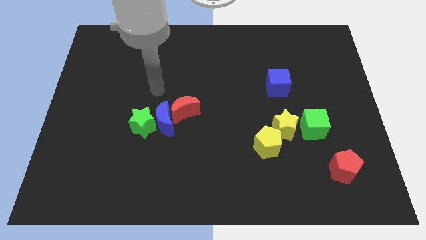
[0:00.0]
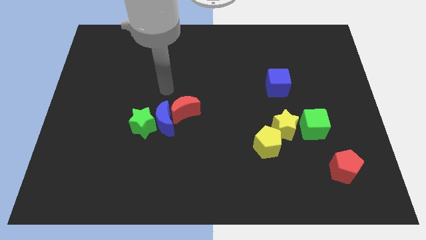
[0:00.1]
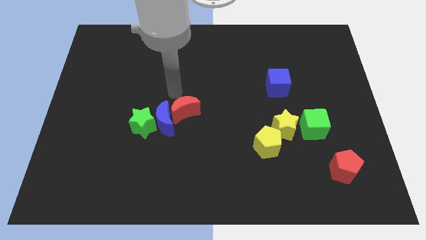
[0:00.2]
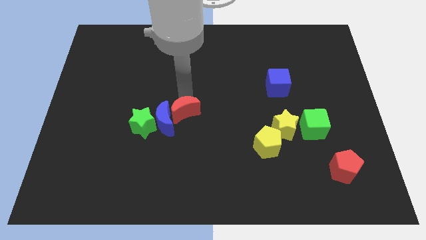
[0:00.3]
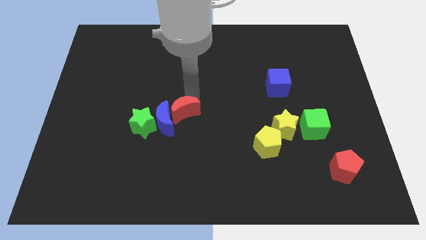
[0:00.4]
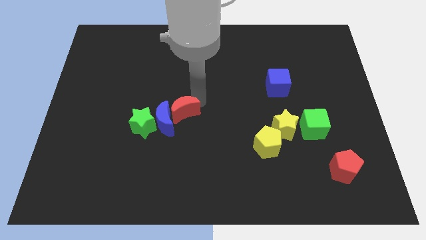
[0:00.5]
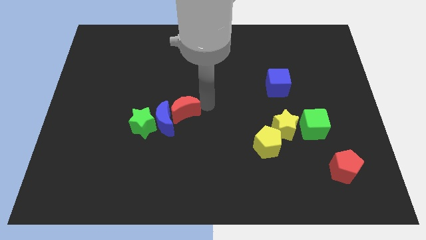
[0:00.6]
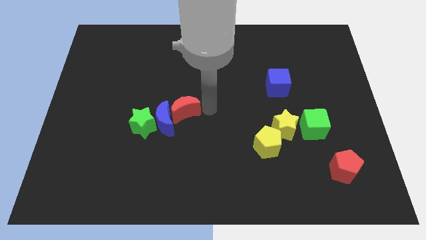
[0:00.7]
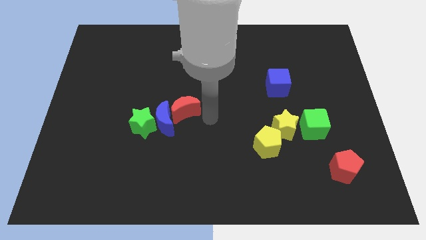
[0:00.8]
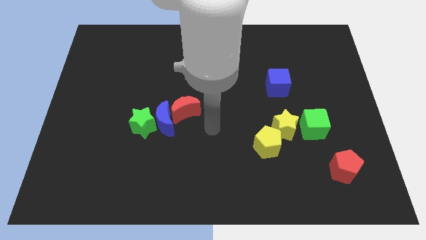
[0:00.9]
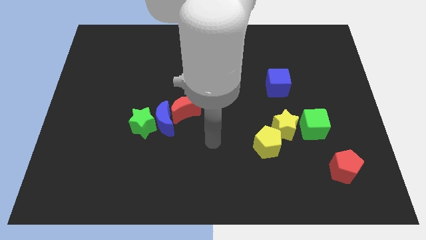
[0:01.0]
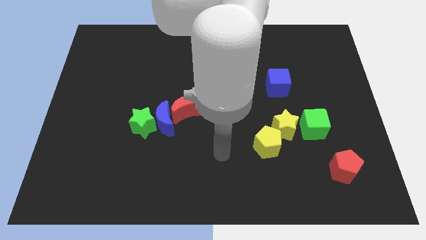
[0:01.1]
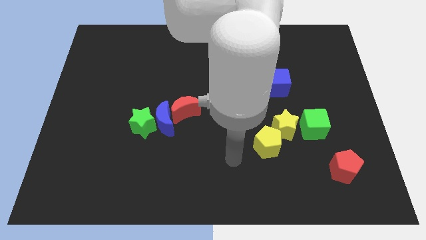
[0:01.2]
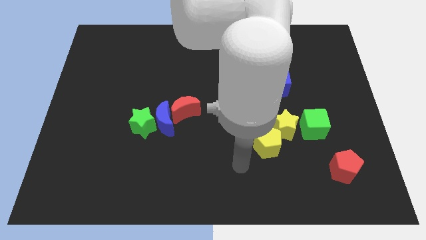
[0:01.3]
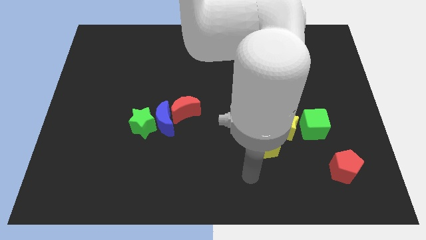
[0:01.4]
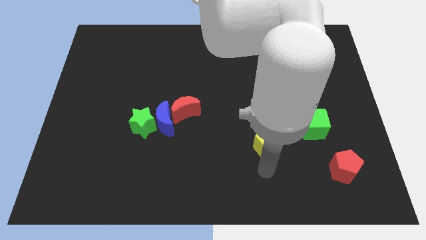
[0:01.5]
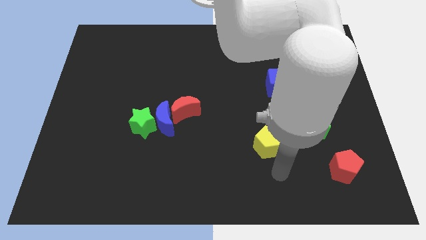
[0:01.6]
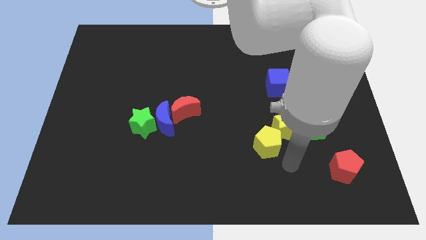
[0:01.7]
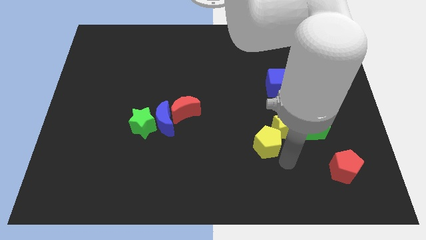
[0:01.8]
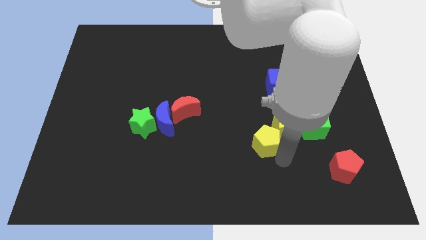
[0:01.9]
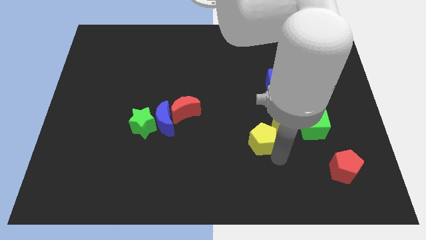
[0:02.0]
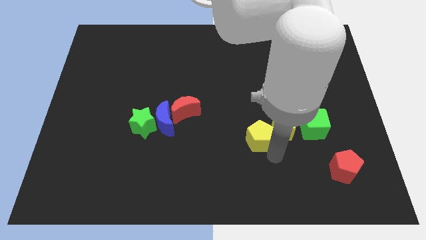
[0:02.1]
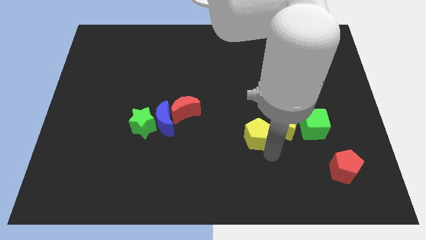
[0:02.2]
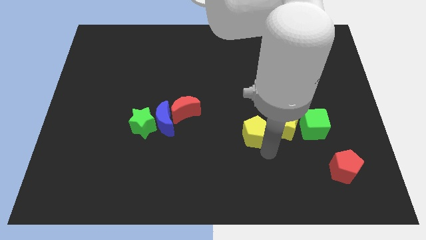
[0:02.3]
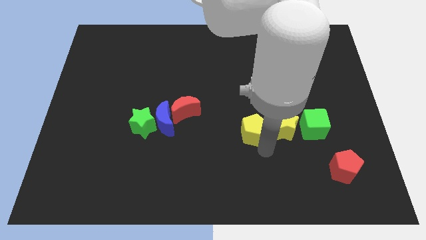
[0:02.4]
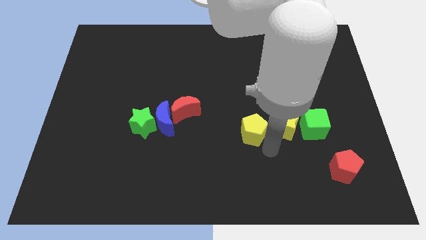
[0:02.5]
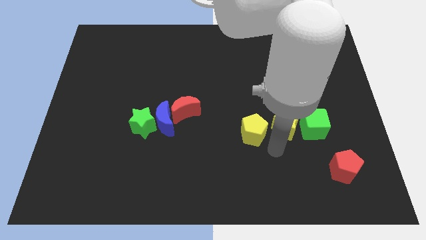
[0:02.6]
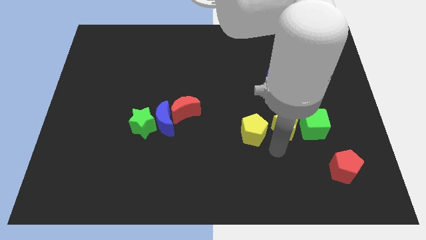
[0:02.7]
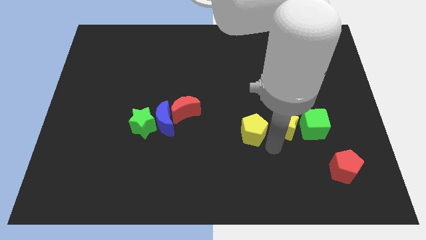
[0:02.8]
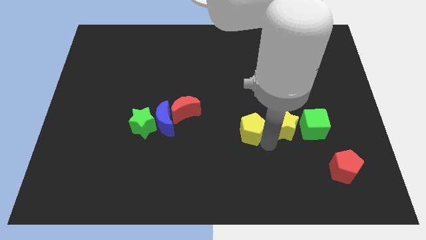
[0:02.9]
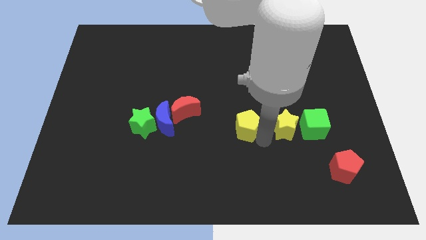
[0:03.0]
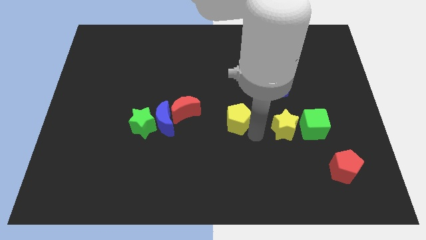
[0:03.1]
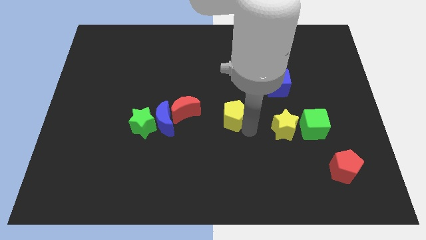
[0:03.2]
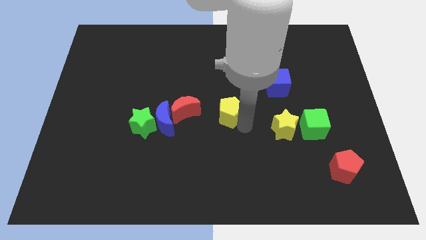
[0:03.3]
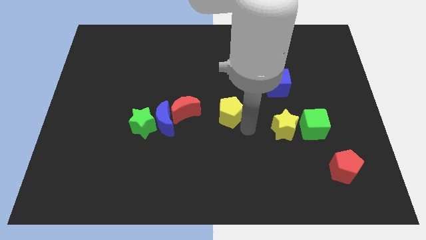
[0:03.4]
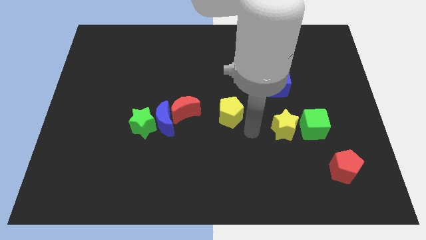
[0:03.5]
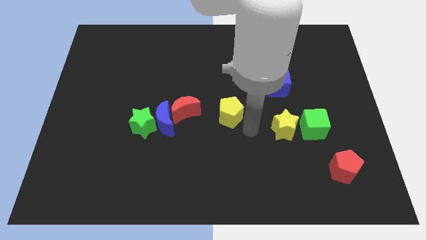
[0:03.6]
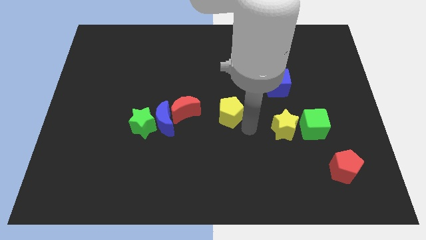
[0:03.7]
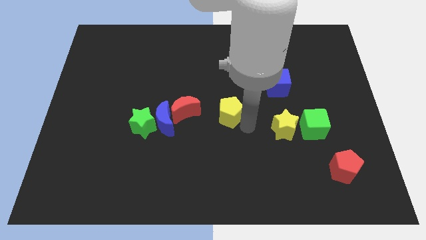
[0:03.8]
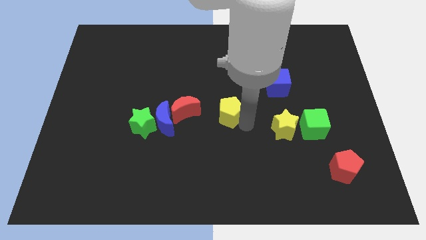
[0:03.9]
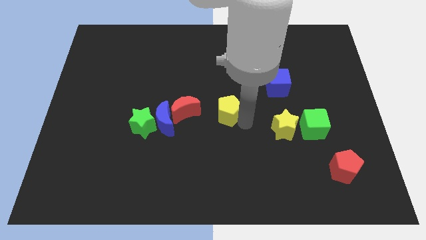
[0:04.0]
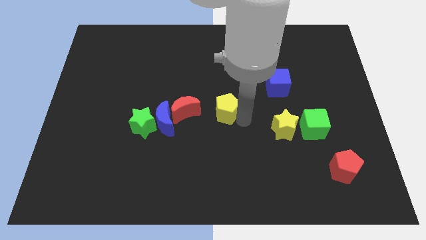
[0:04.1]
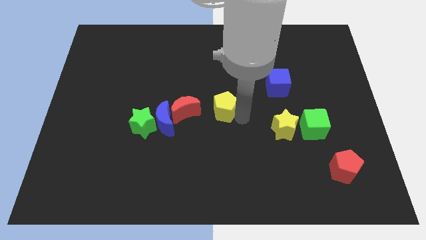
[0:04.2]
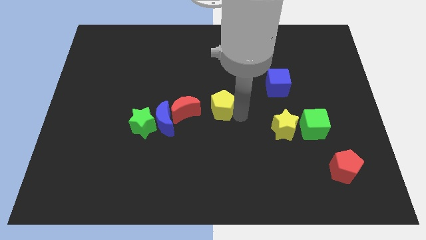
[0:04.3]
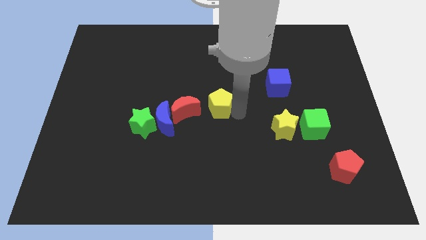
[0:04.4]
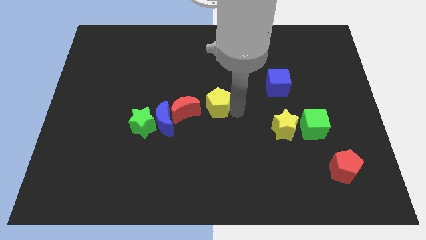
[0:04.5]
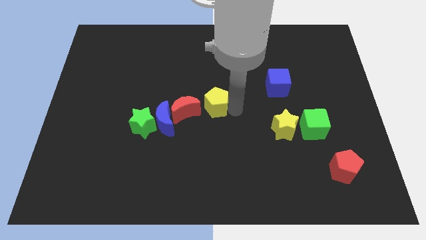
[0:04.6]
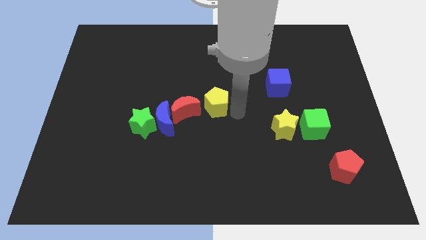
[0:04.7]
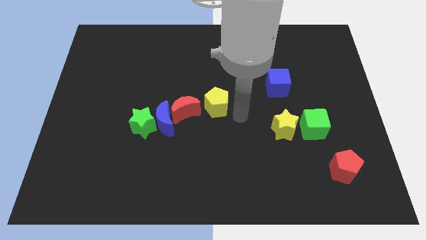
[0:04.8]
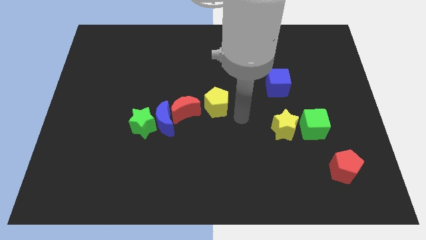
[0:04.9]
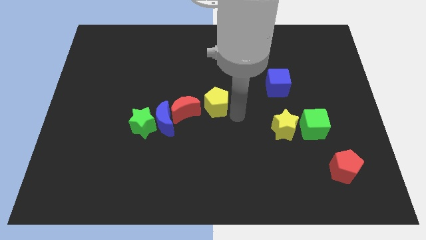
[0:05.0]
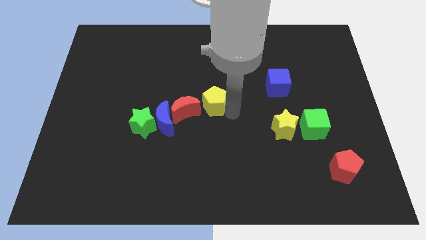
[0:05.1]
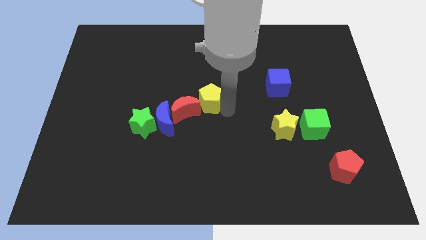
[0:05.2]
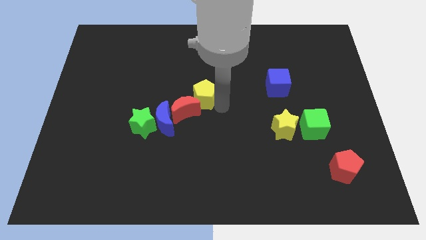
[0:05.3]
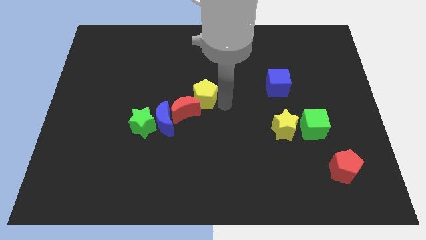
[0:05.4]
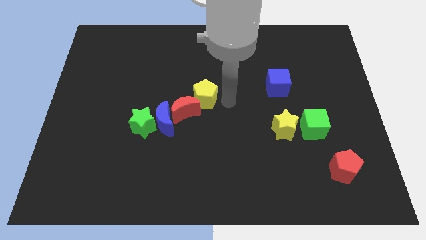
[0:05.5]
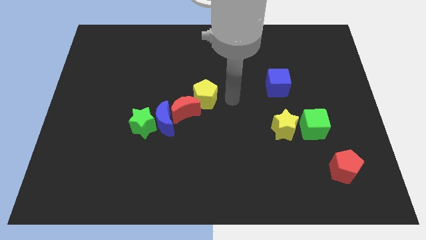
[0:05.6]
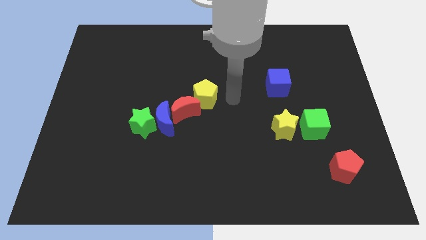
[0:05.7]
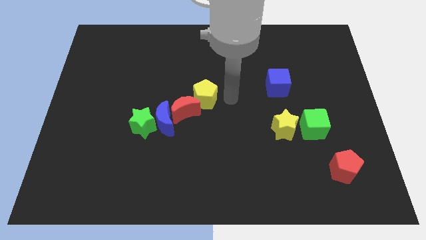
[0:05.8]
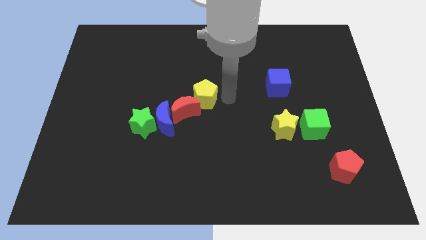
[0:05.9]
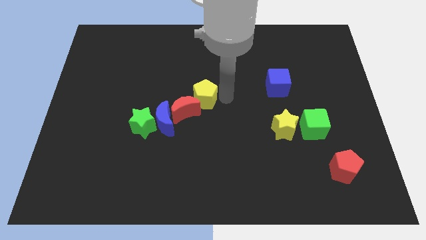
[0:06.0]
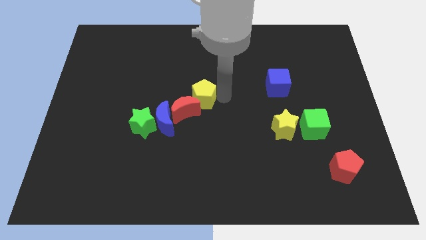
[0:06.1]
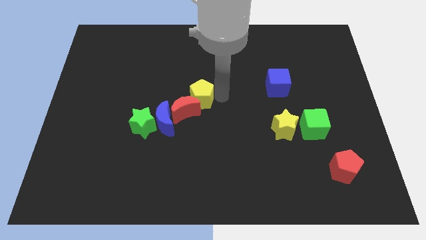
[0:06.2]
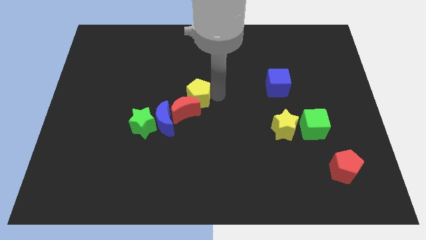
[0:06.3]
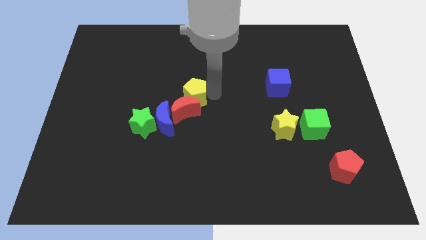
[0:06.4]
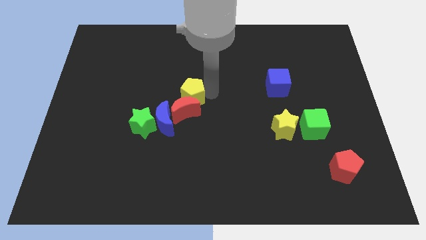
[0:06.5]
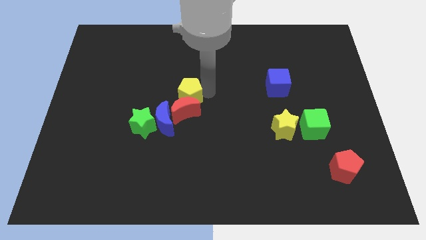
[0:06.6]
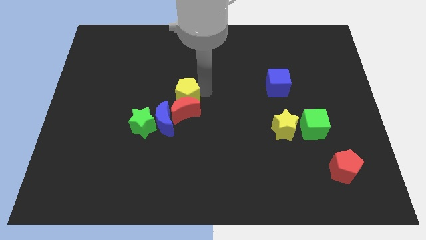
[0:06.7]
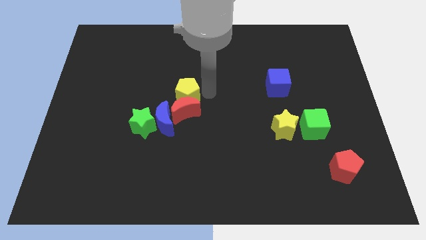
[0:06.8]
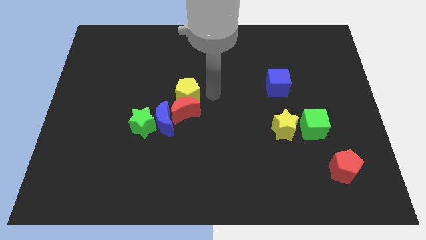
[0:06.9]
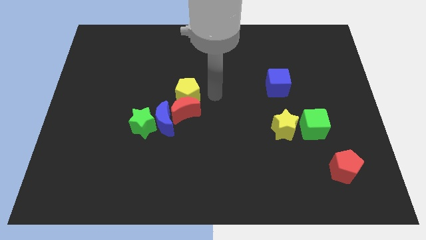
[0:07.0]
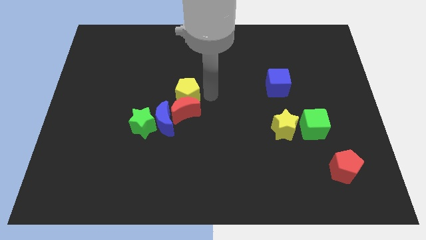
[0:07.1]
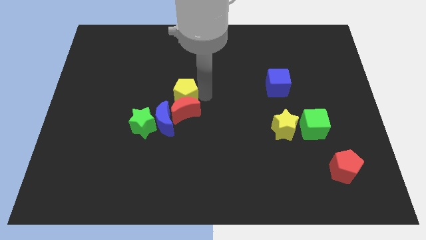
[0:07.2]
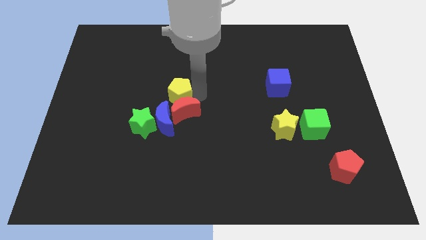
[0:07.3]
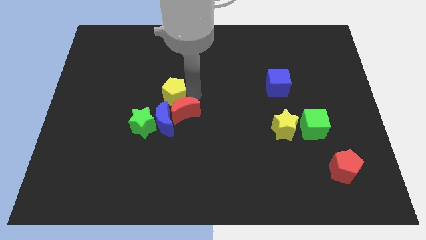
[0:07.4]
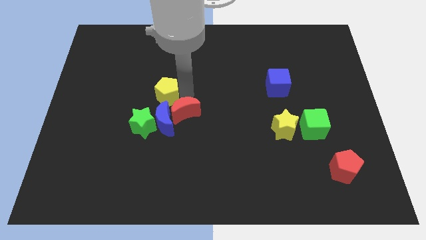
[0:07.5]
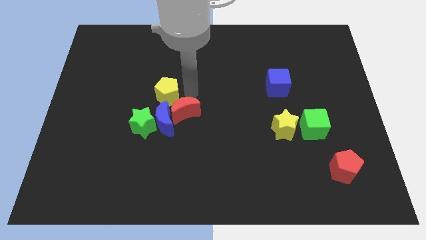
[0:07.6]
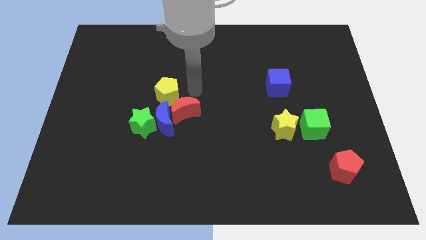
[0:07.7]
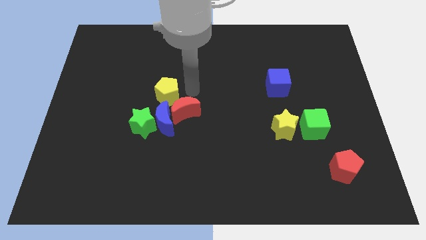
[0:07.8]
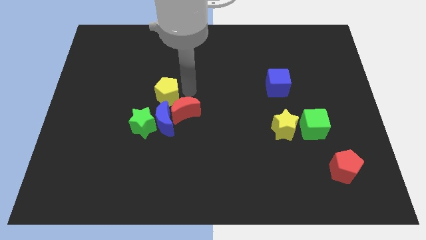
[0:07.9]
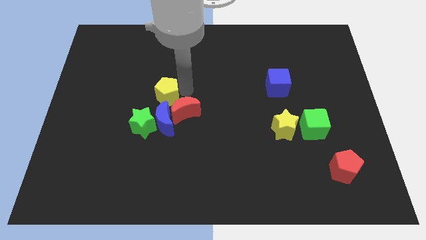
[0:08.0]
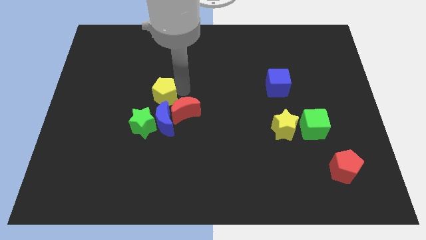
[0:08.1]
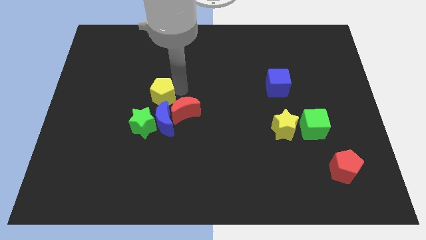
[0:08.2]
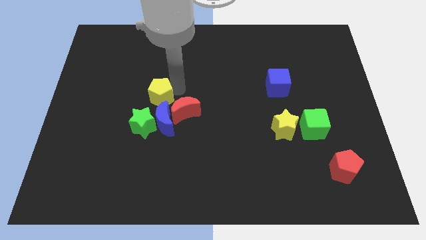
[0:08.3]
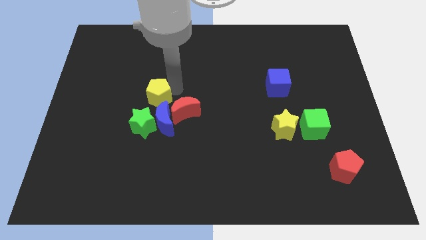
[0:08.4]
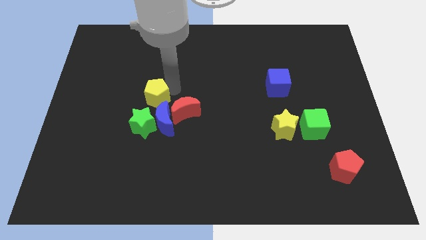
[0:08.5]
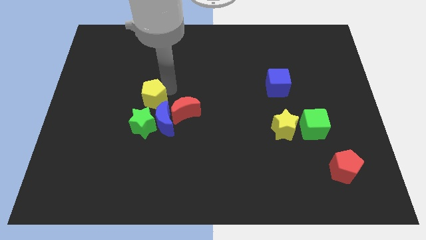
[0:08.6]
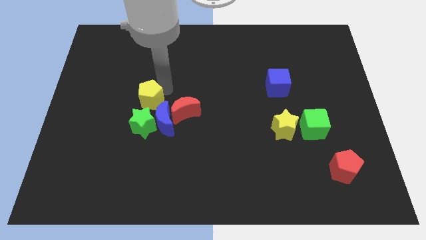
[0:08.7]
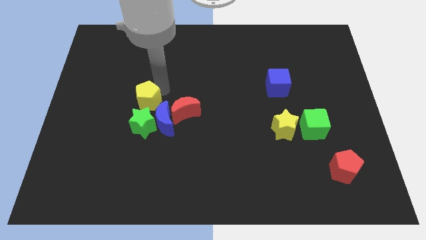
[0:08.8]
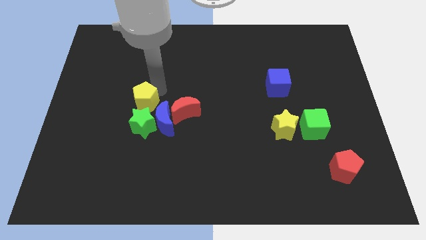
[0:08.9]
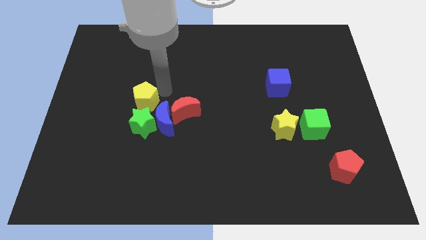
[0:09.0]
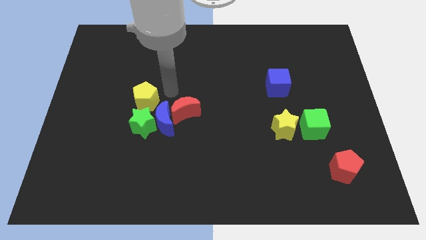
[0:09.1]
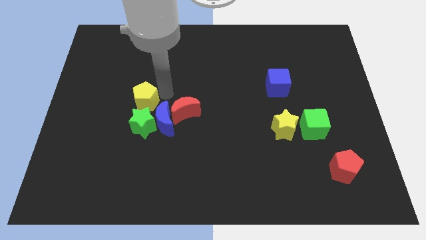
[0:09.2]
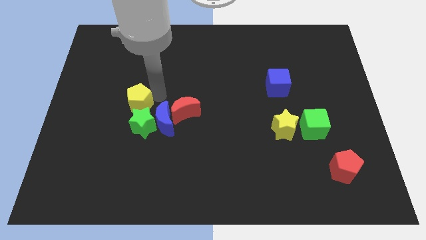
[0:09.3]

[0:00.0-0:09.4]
move the yellow pentagon to the top left of the green star
